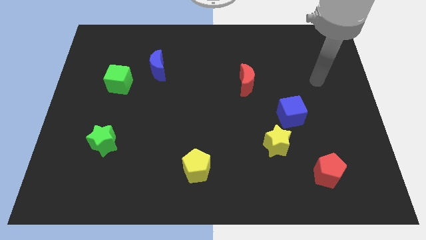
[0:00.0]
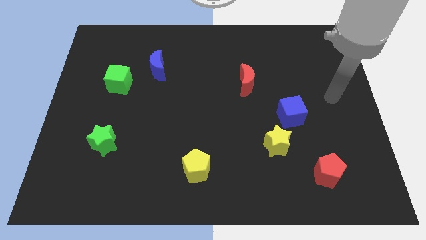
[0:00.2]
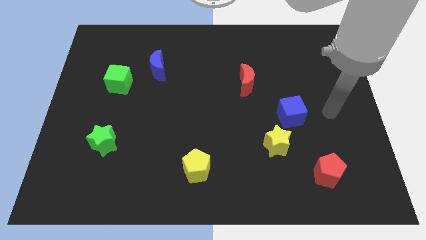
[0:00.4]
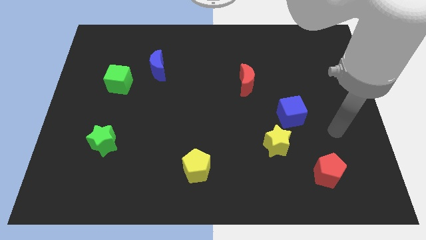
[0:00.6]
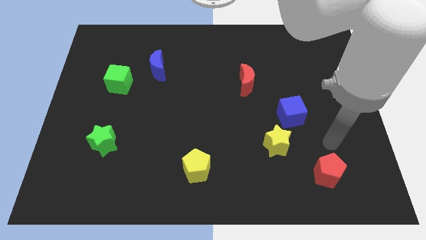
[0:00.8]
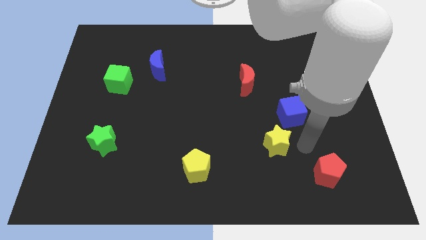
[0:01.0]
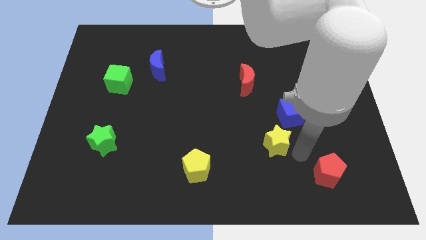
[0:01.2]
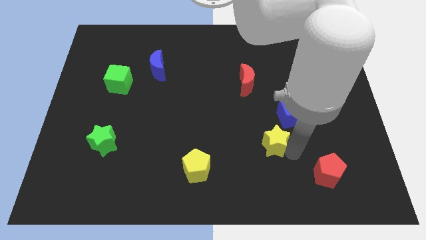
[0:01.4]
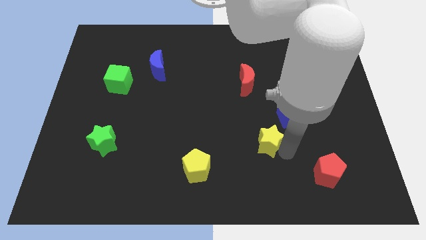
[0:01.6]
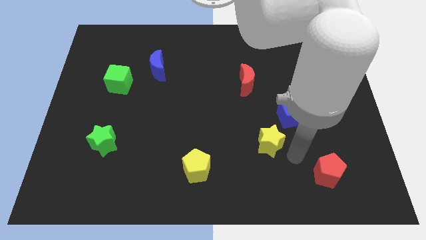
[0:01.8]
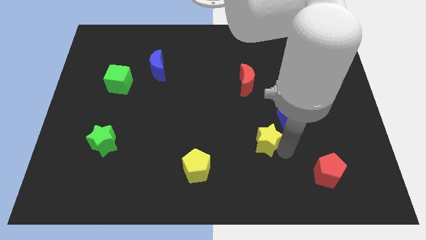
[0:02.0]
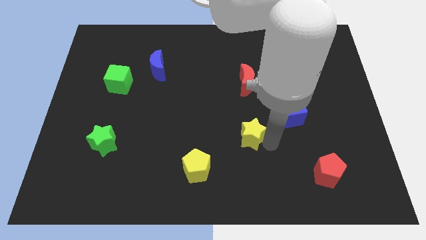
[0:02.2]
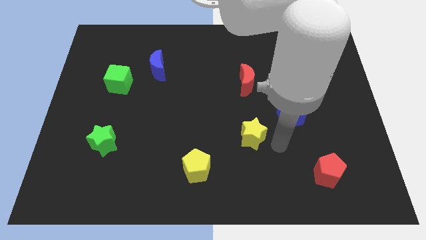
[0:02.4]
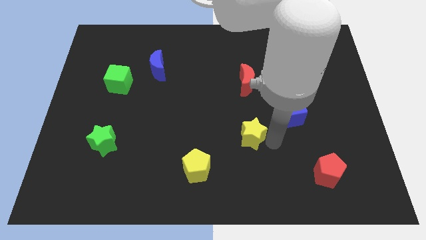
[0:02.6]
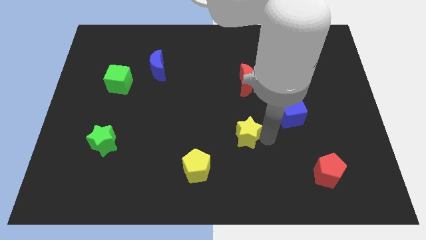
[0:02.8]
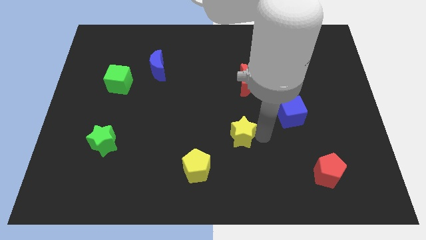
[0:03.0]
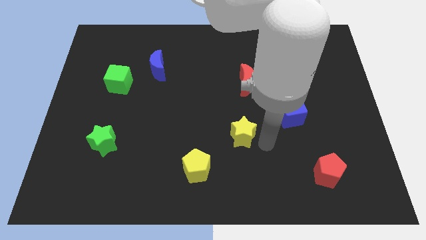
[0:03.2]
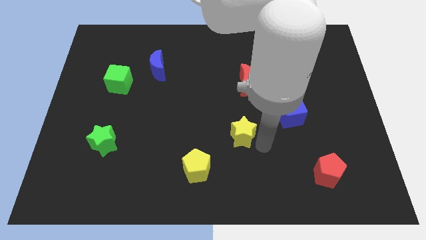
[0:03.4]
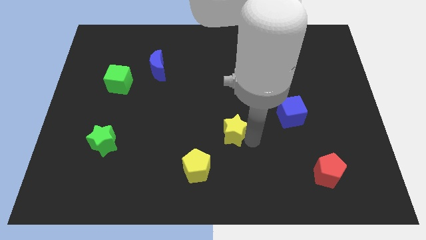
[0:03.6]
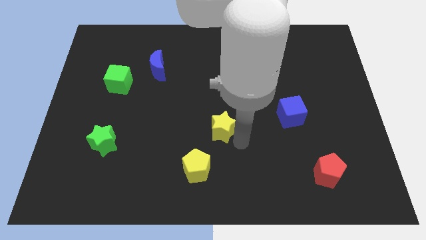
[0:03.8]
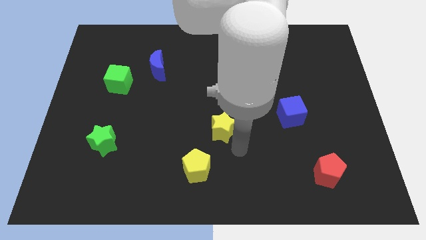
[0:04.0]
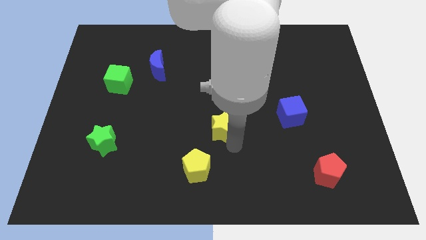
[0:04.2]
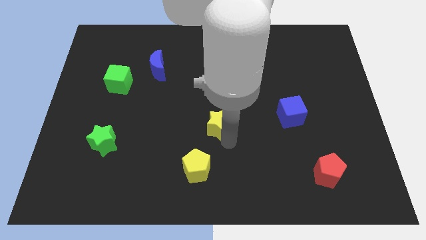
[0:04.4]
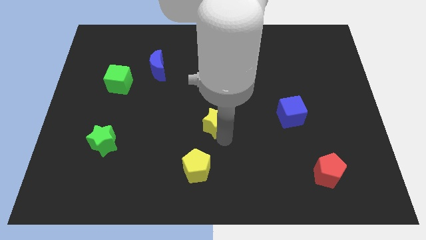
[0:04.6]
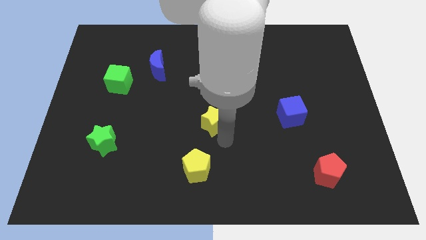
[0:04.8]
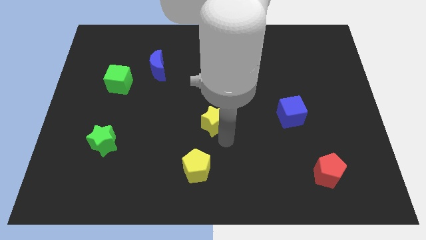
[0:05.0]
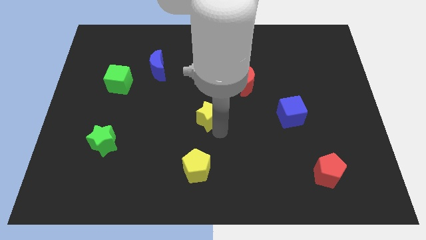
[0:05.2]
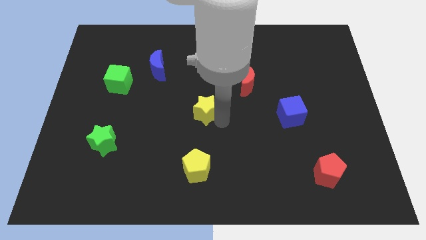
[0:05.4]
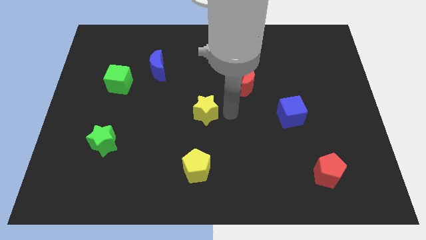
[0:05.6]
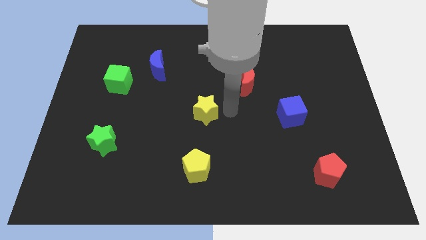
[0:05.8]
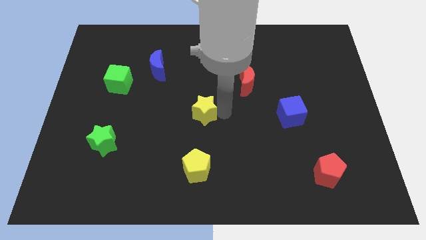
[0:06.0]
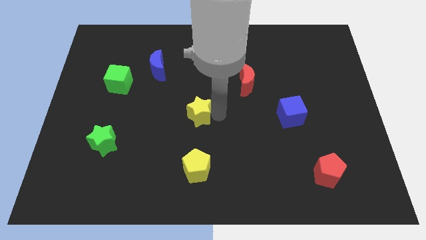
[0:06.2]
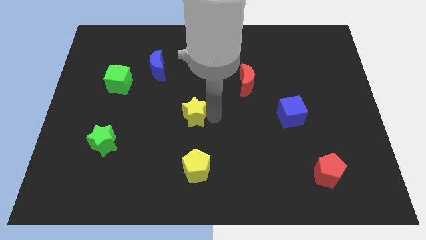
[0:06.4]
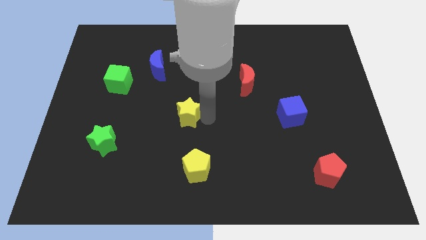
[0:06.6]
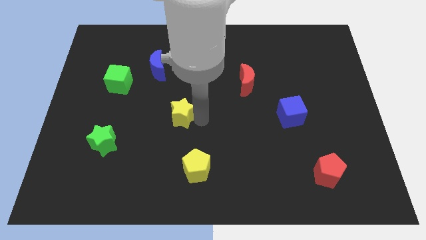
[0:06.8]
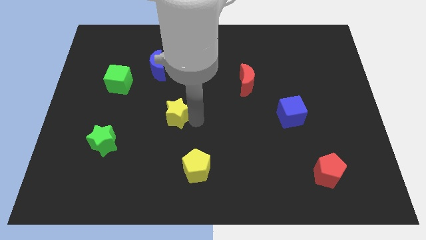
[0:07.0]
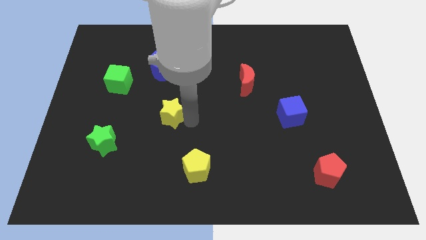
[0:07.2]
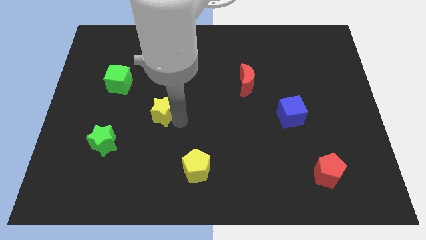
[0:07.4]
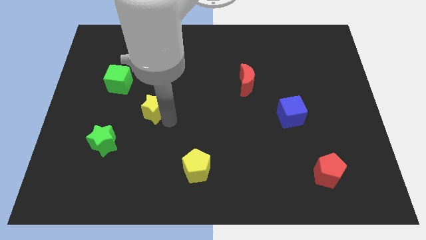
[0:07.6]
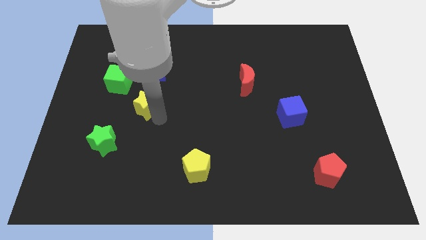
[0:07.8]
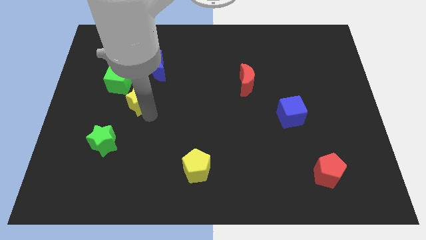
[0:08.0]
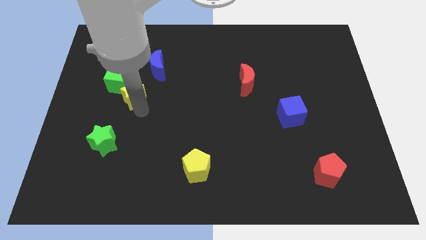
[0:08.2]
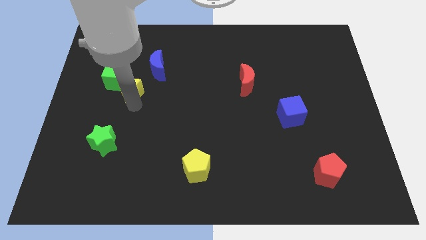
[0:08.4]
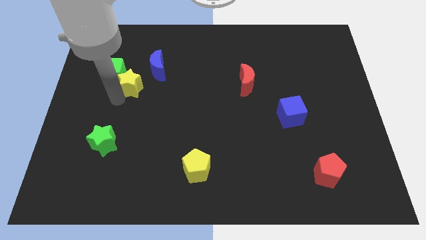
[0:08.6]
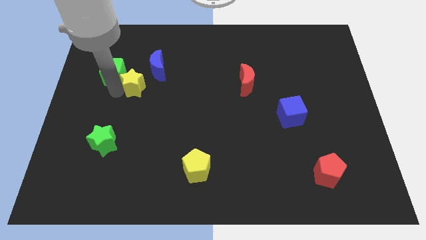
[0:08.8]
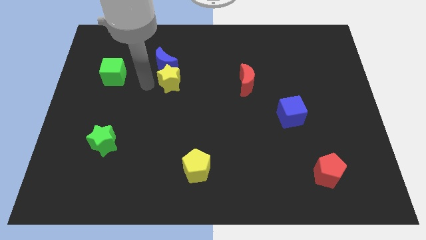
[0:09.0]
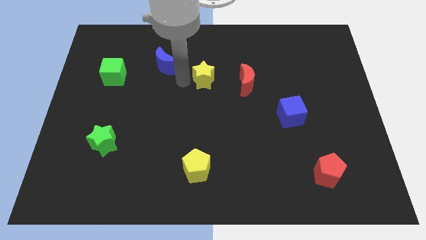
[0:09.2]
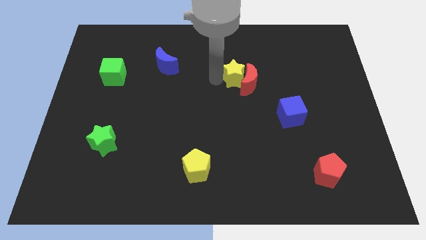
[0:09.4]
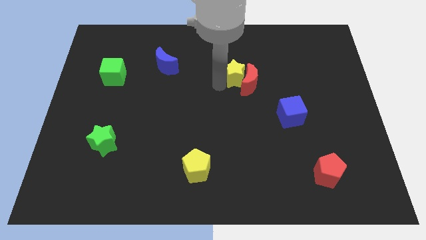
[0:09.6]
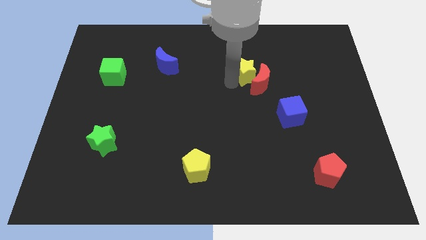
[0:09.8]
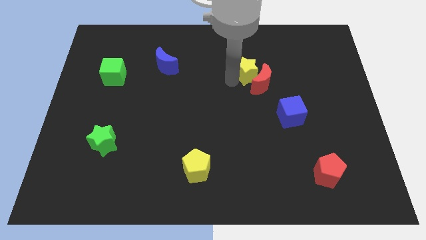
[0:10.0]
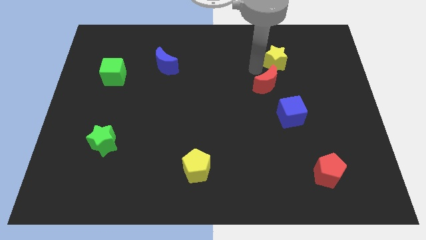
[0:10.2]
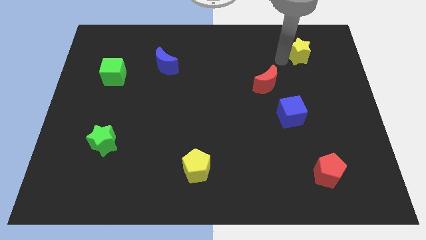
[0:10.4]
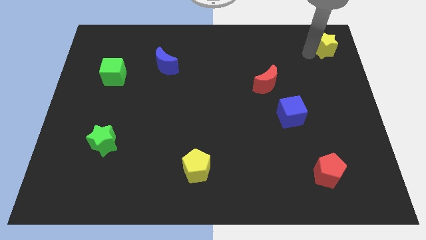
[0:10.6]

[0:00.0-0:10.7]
slide the yellow star to the top right corner
